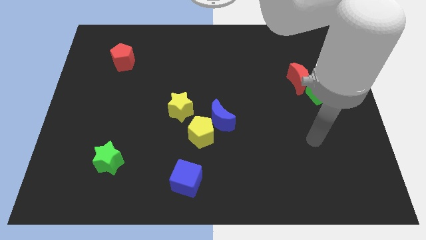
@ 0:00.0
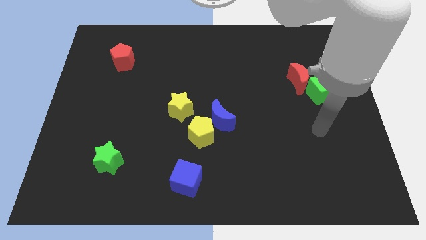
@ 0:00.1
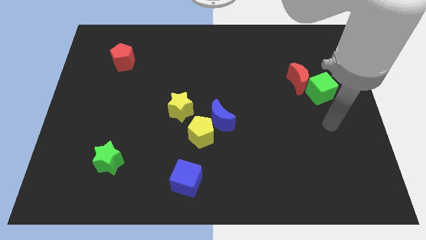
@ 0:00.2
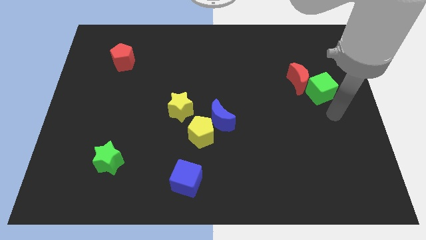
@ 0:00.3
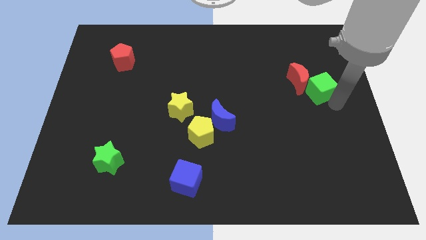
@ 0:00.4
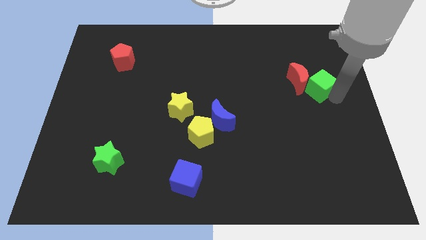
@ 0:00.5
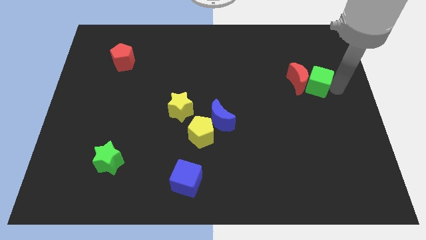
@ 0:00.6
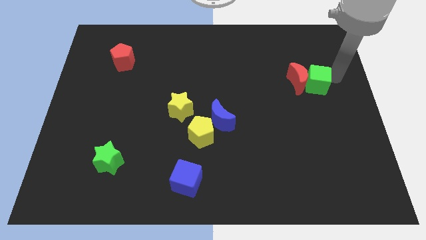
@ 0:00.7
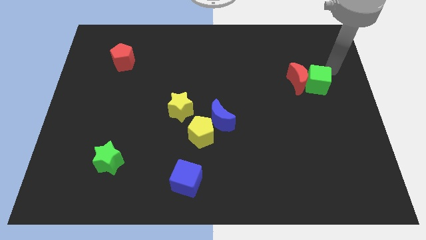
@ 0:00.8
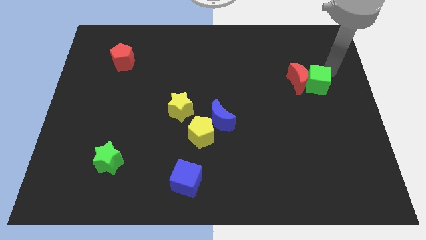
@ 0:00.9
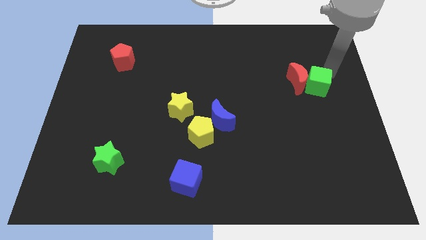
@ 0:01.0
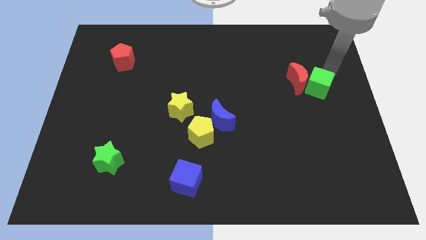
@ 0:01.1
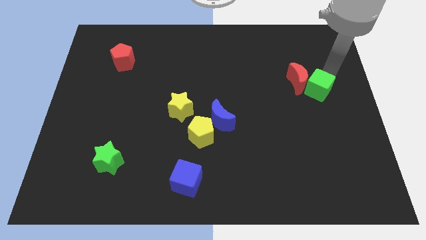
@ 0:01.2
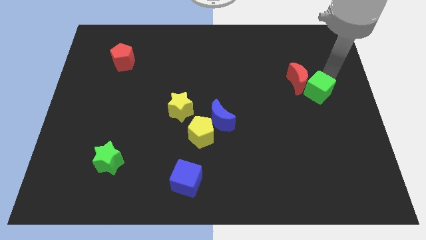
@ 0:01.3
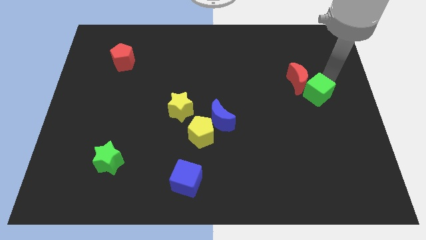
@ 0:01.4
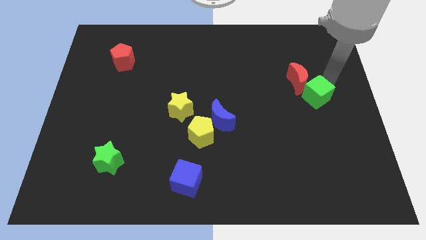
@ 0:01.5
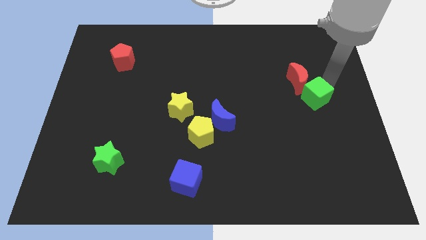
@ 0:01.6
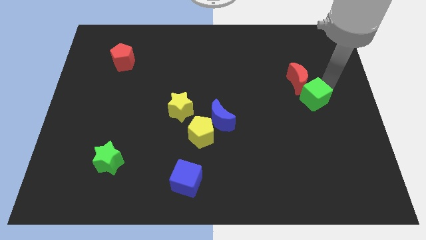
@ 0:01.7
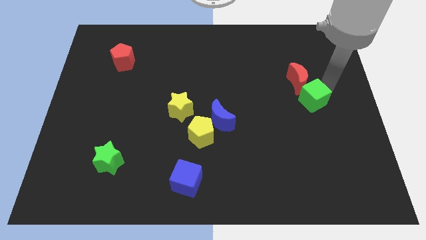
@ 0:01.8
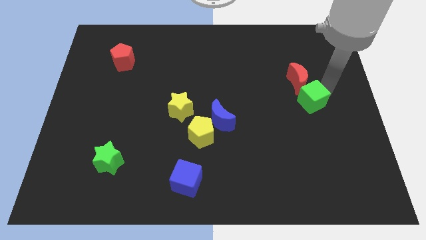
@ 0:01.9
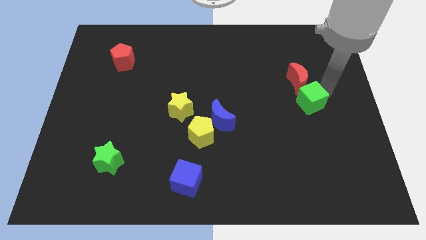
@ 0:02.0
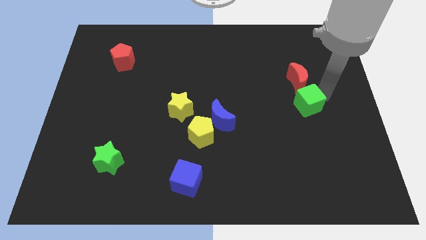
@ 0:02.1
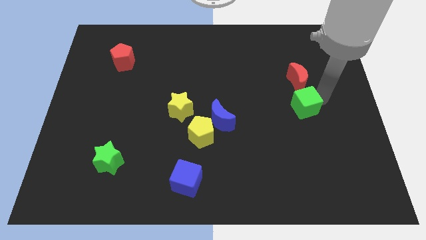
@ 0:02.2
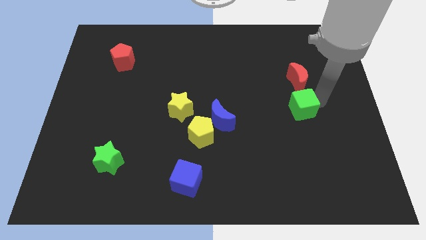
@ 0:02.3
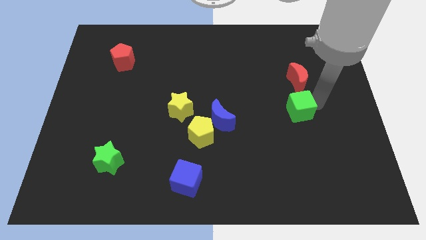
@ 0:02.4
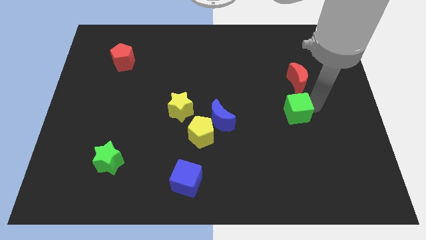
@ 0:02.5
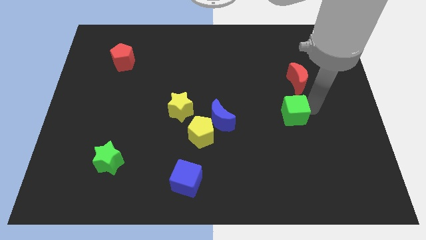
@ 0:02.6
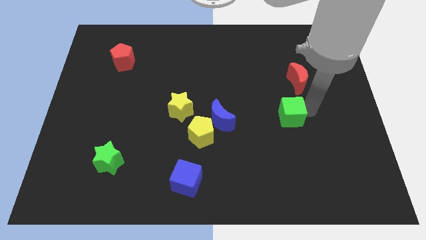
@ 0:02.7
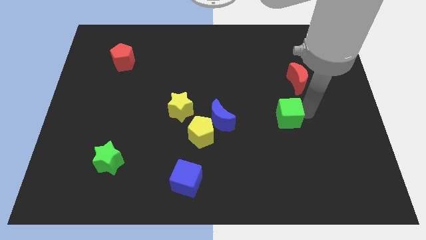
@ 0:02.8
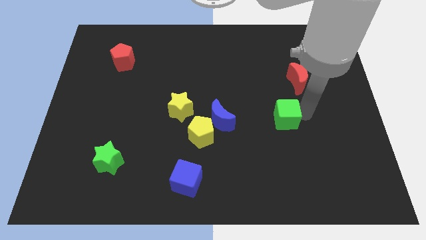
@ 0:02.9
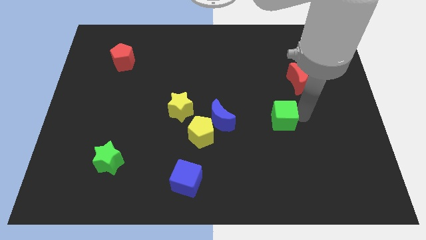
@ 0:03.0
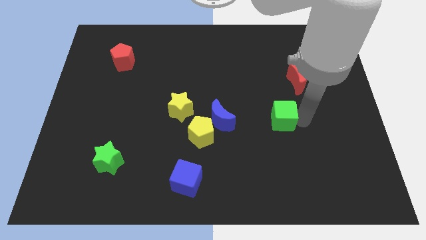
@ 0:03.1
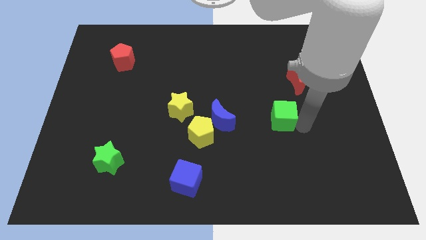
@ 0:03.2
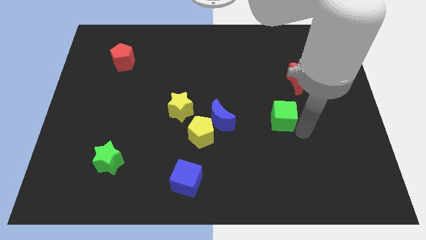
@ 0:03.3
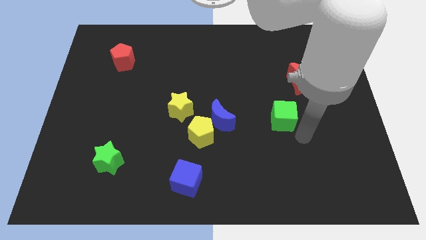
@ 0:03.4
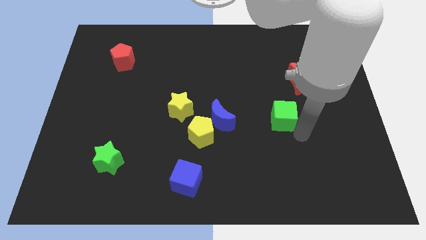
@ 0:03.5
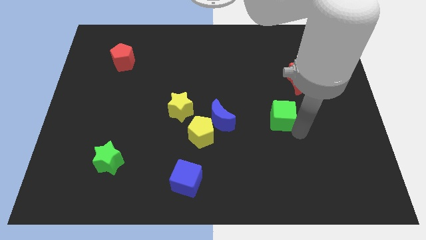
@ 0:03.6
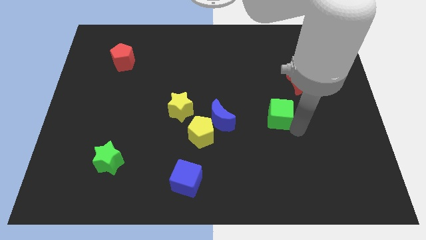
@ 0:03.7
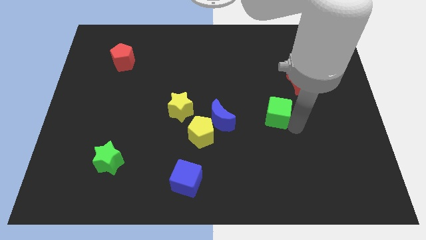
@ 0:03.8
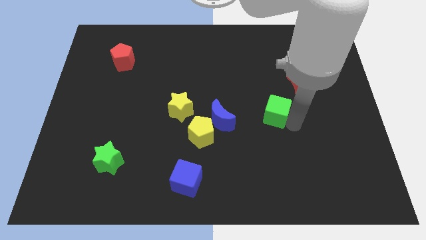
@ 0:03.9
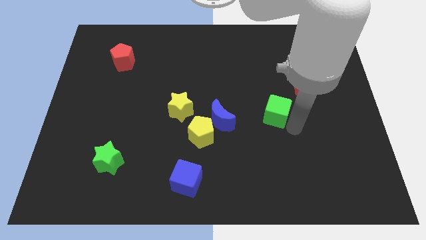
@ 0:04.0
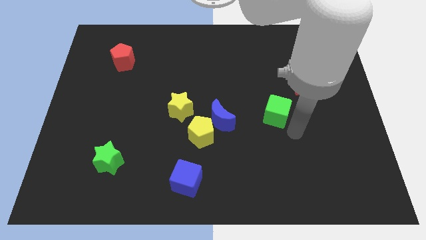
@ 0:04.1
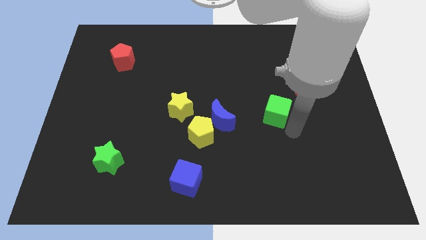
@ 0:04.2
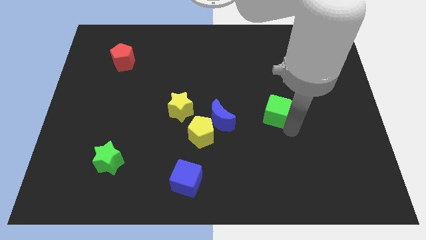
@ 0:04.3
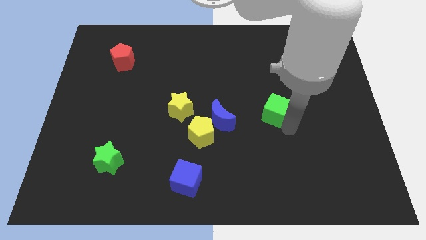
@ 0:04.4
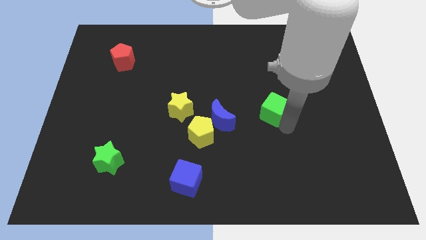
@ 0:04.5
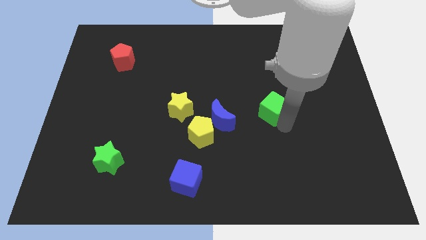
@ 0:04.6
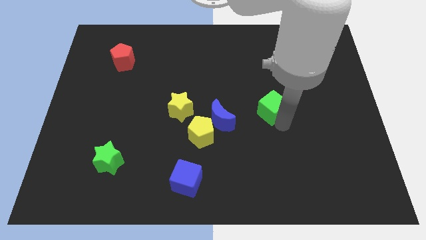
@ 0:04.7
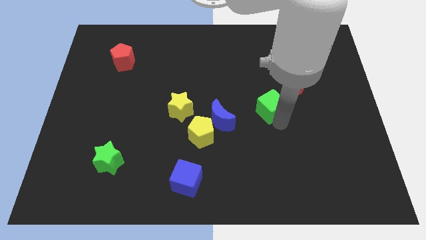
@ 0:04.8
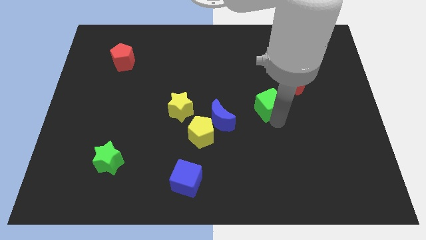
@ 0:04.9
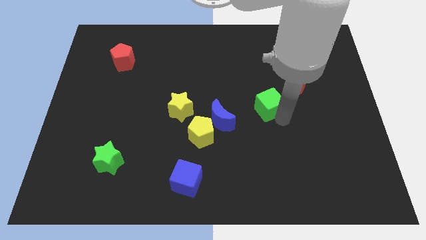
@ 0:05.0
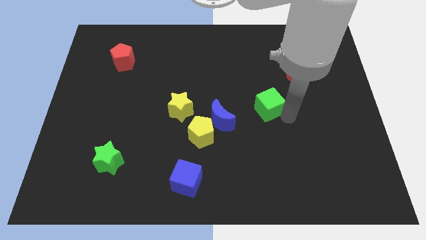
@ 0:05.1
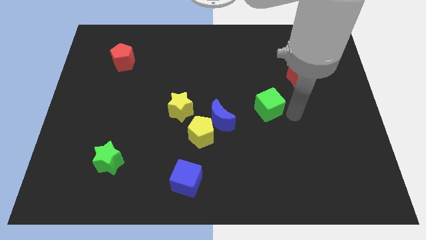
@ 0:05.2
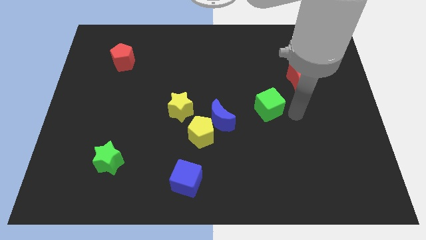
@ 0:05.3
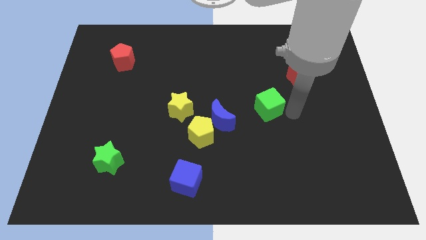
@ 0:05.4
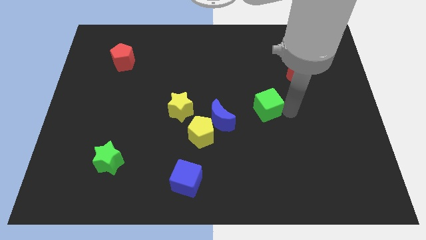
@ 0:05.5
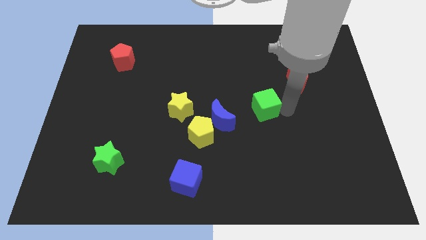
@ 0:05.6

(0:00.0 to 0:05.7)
move the green cube to the middle of the board

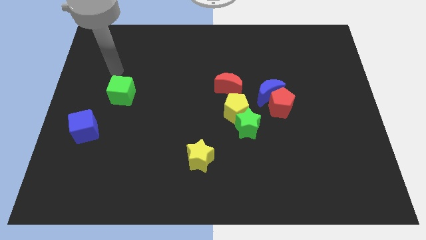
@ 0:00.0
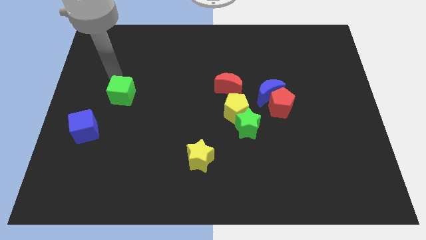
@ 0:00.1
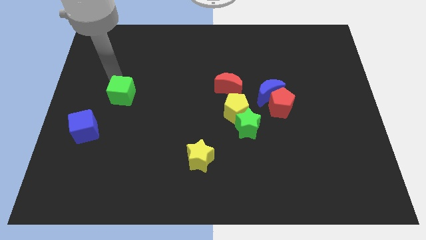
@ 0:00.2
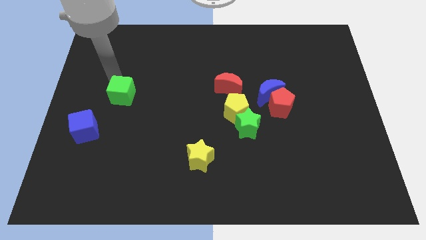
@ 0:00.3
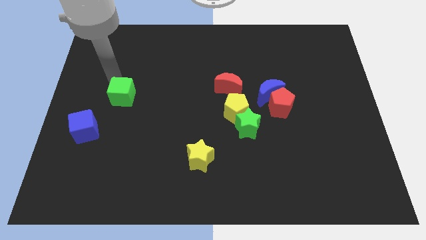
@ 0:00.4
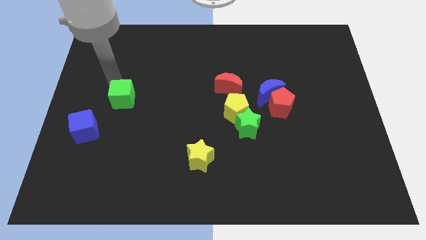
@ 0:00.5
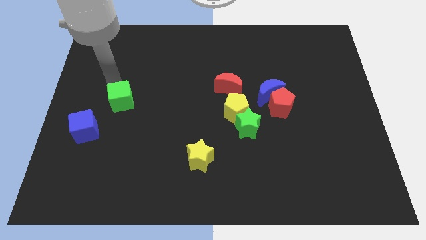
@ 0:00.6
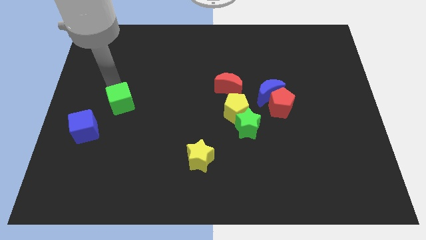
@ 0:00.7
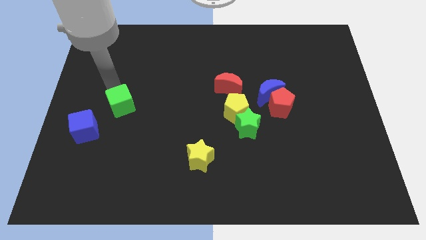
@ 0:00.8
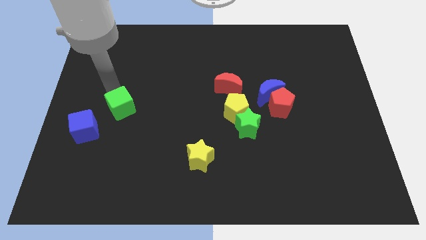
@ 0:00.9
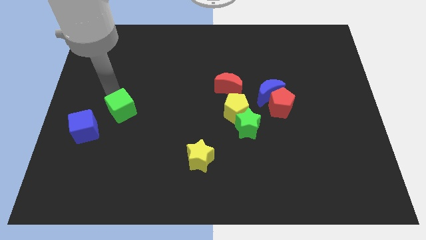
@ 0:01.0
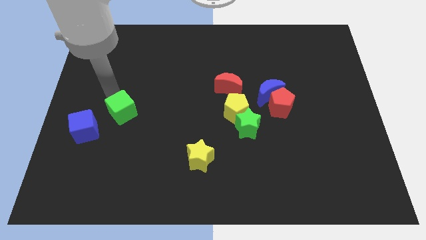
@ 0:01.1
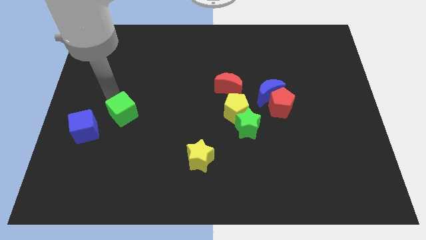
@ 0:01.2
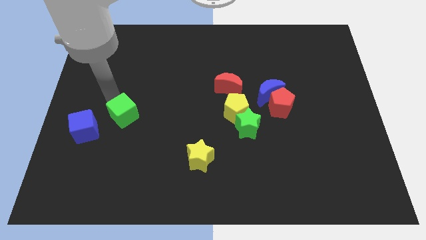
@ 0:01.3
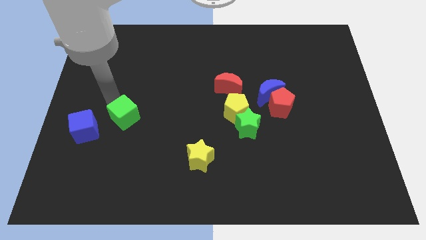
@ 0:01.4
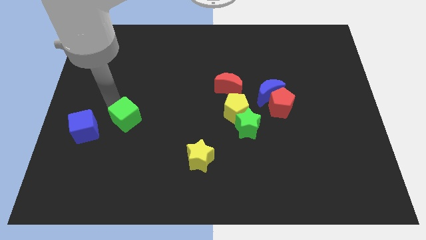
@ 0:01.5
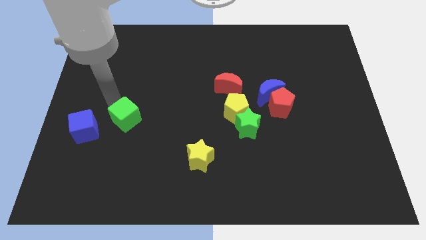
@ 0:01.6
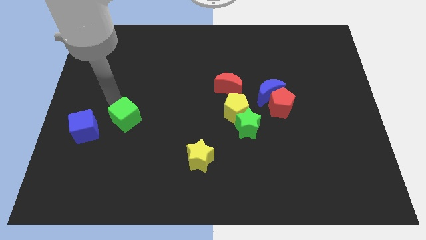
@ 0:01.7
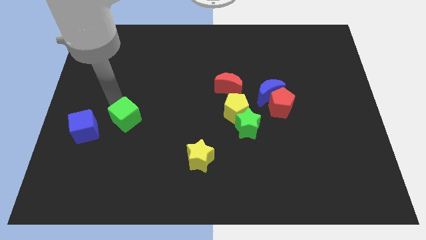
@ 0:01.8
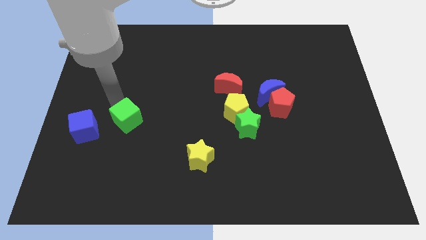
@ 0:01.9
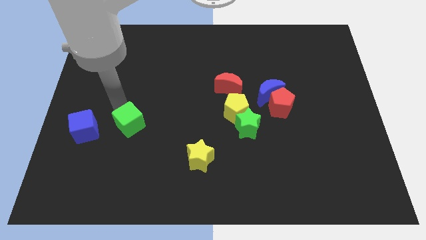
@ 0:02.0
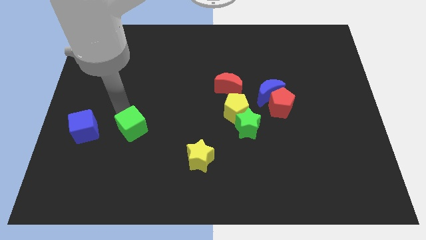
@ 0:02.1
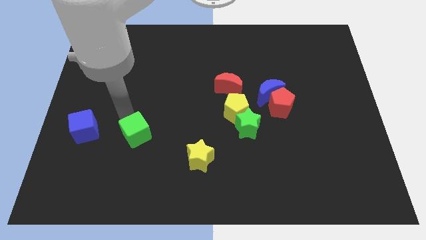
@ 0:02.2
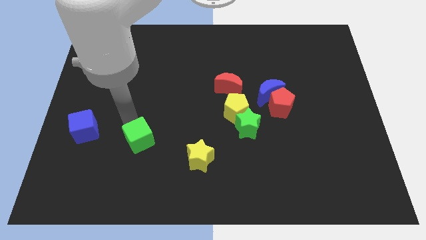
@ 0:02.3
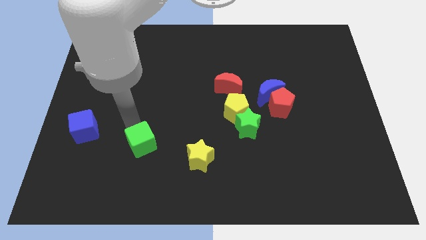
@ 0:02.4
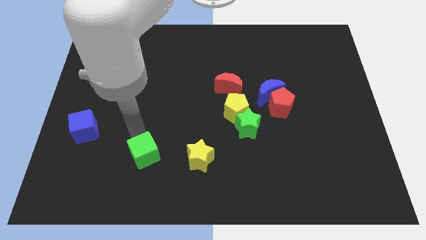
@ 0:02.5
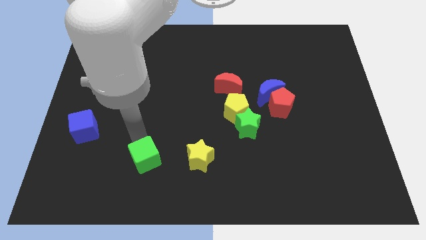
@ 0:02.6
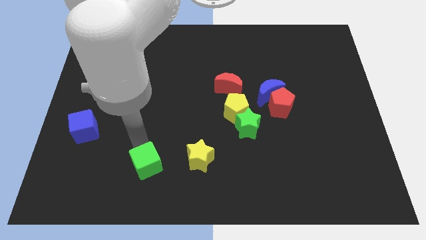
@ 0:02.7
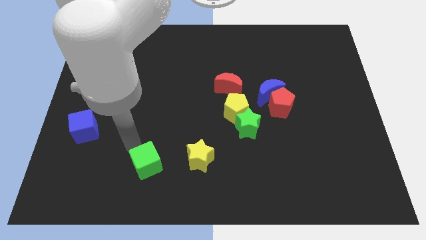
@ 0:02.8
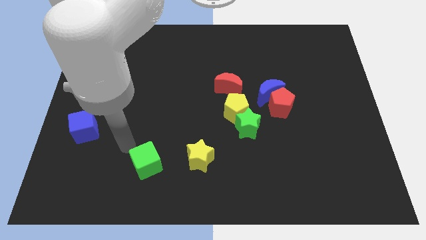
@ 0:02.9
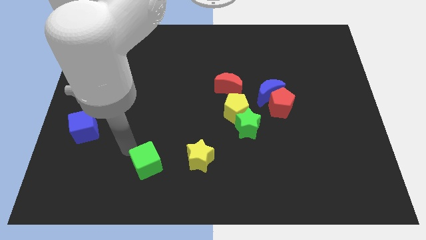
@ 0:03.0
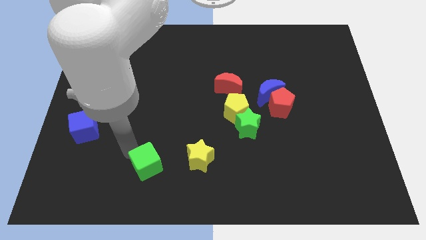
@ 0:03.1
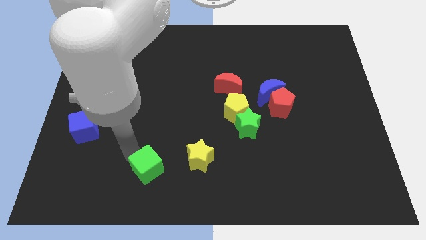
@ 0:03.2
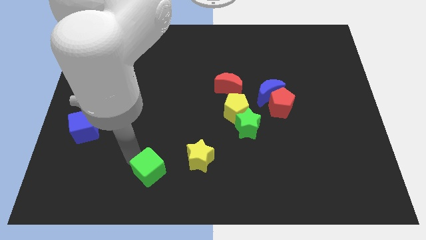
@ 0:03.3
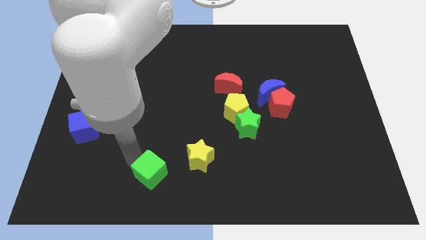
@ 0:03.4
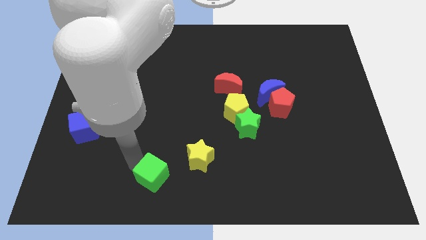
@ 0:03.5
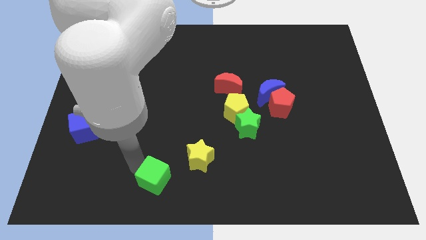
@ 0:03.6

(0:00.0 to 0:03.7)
slide the green cube to the bottom
